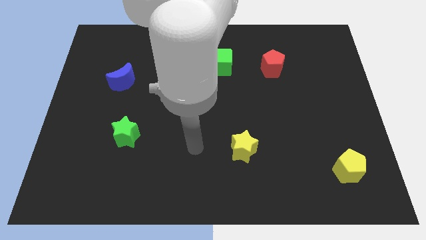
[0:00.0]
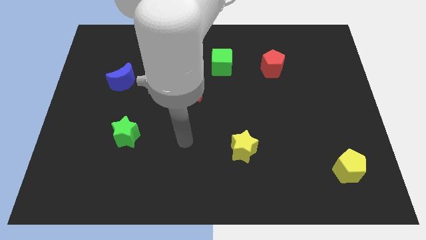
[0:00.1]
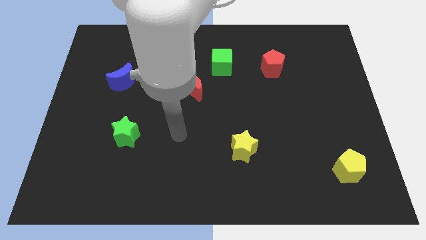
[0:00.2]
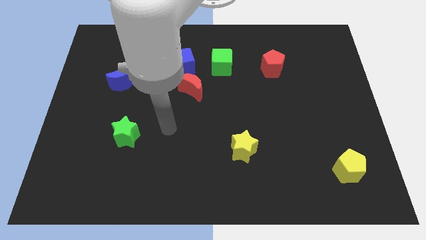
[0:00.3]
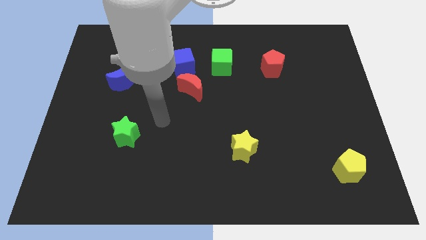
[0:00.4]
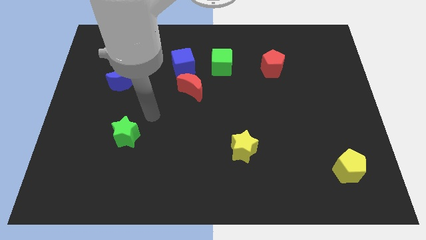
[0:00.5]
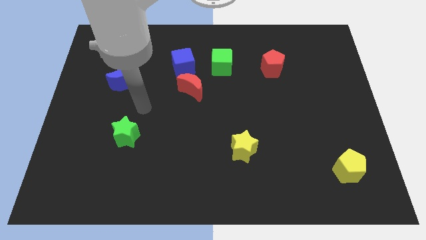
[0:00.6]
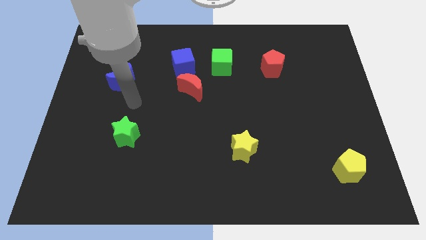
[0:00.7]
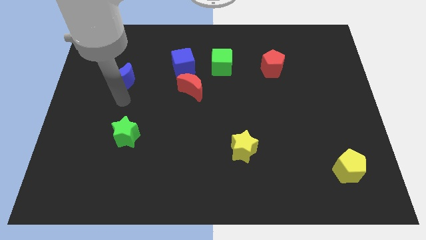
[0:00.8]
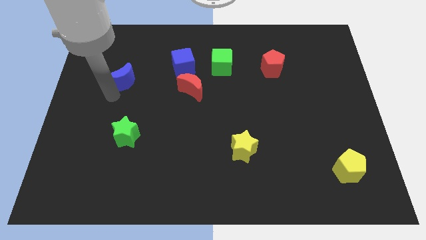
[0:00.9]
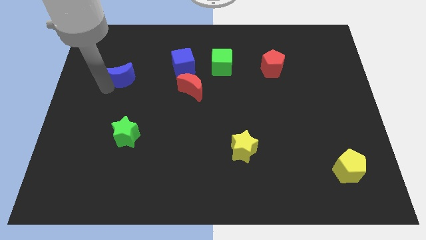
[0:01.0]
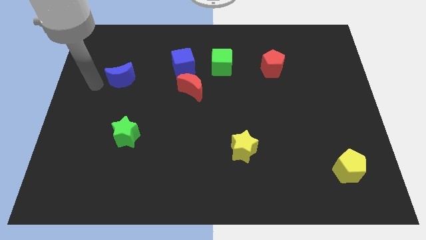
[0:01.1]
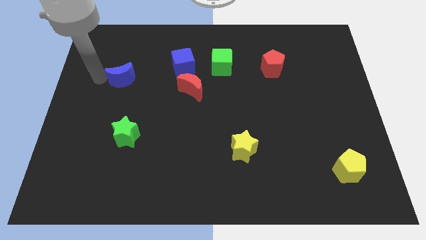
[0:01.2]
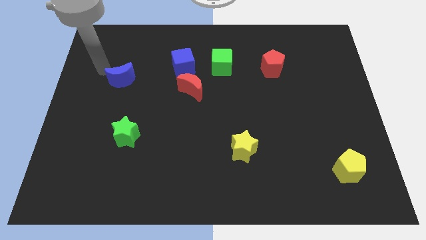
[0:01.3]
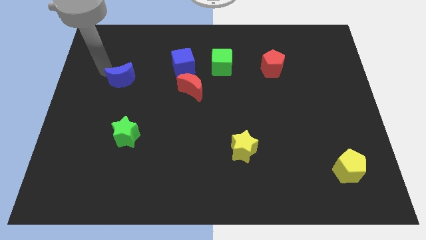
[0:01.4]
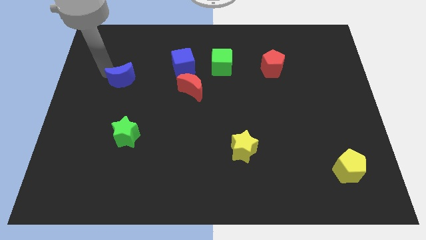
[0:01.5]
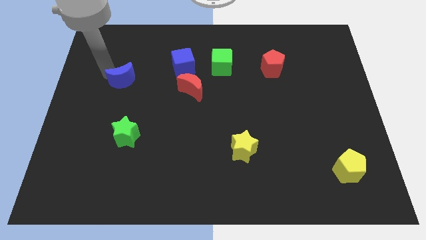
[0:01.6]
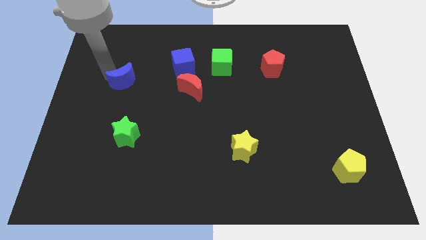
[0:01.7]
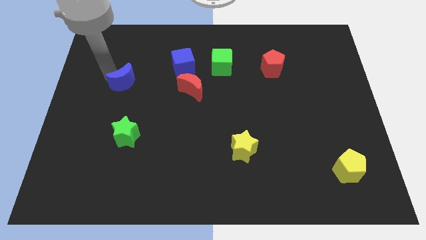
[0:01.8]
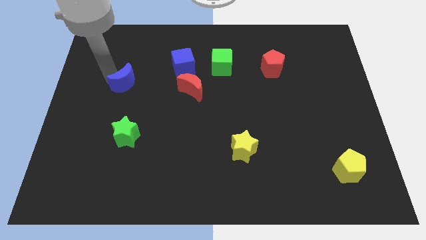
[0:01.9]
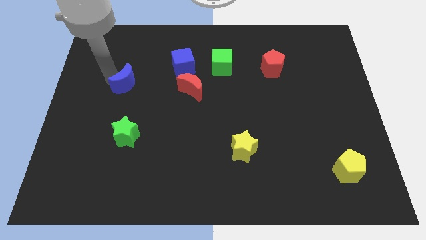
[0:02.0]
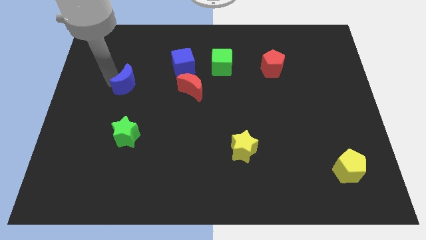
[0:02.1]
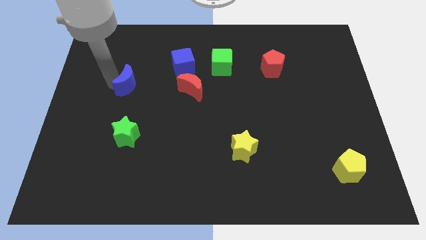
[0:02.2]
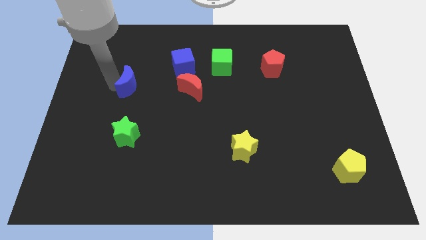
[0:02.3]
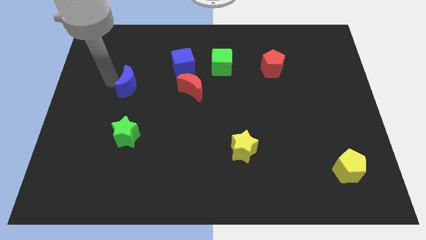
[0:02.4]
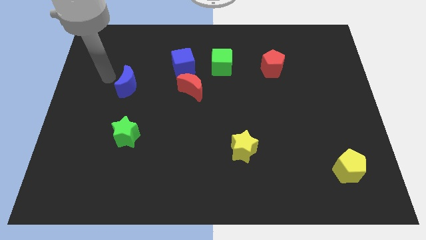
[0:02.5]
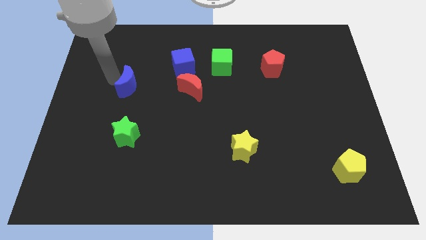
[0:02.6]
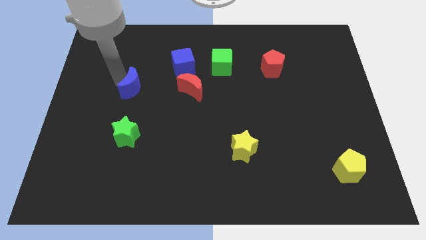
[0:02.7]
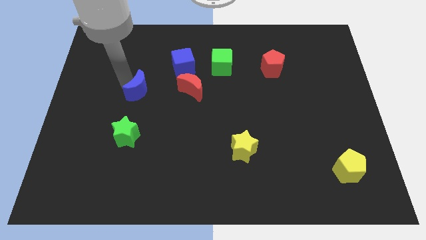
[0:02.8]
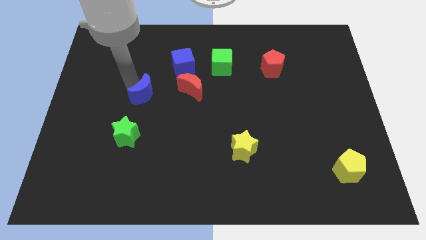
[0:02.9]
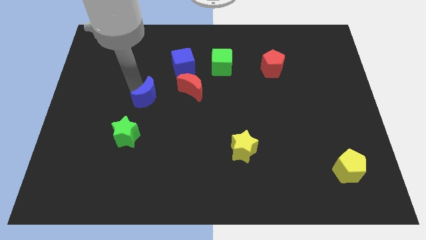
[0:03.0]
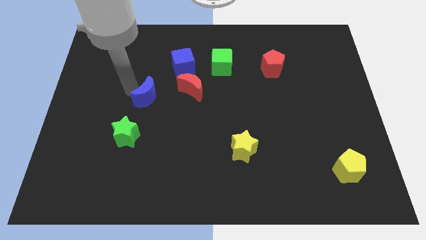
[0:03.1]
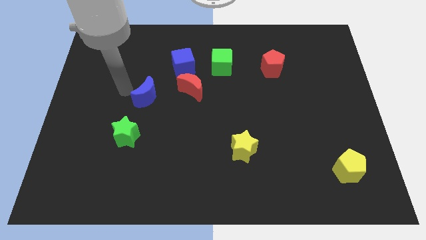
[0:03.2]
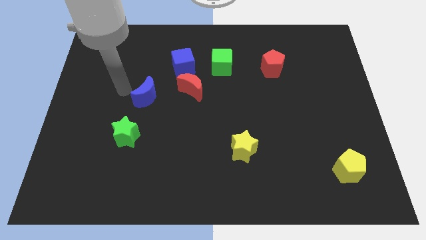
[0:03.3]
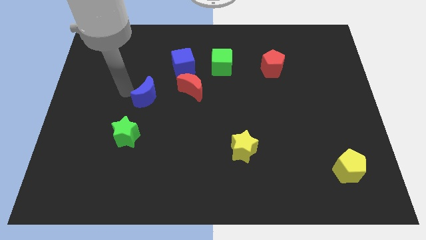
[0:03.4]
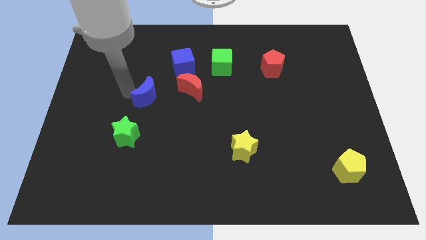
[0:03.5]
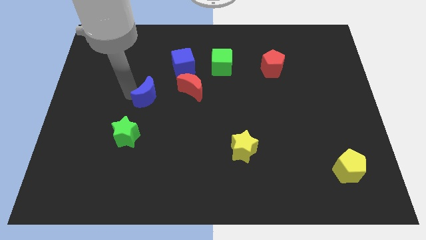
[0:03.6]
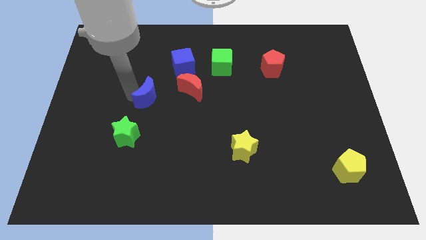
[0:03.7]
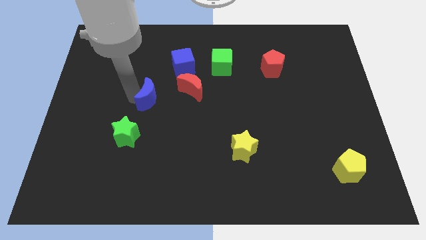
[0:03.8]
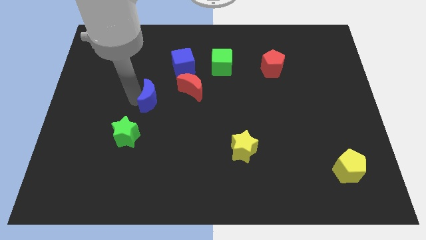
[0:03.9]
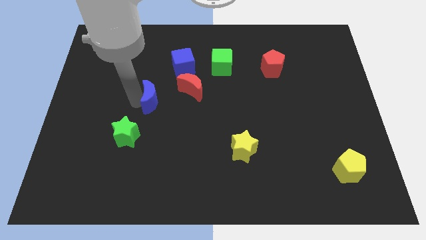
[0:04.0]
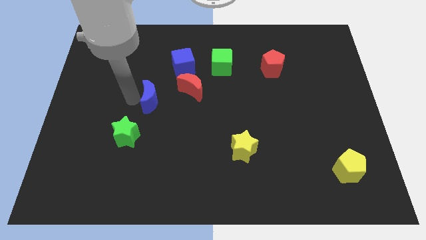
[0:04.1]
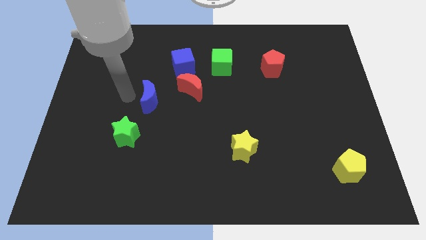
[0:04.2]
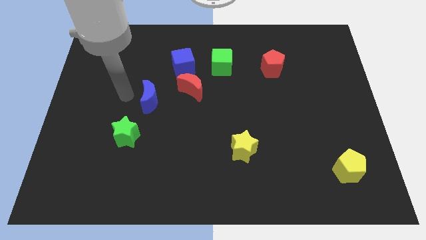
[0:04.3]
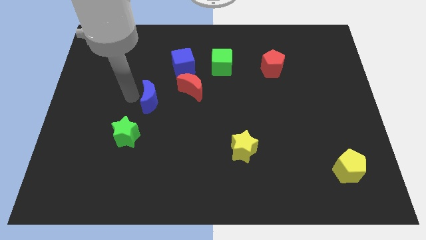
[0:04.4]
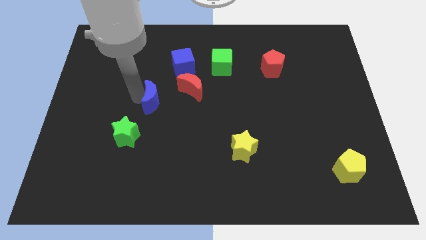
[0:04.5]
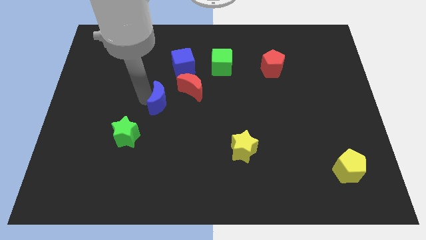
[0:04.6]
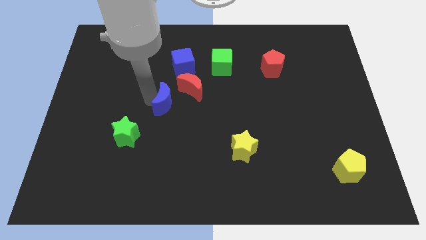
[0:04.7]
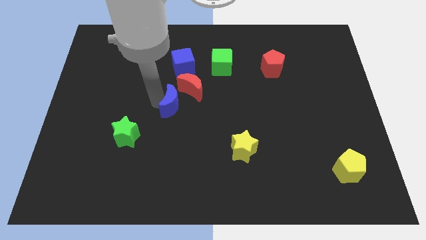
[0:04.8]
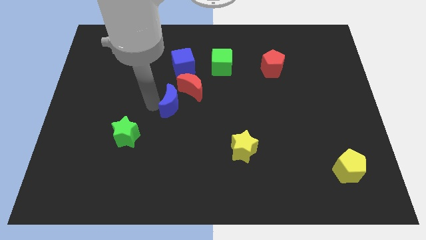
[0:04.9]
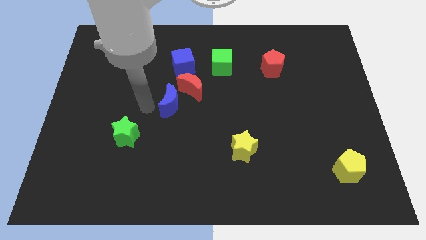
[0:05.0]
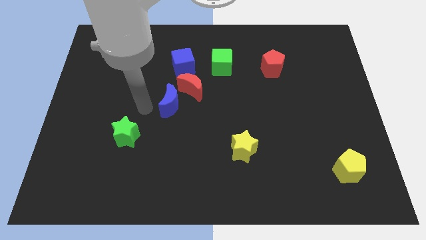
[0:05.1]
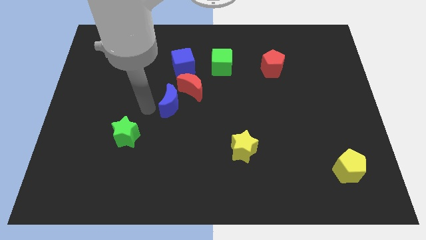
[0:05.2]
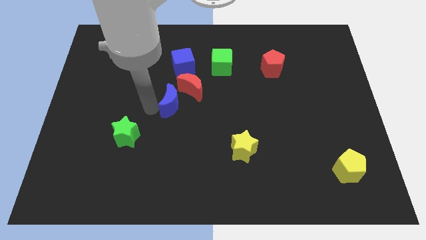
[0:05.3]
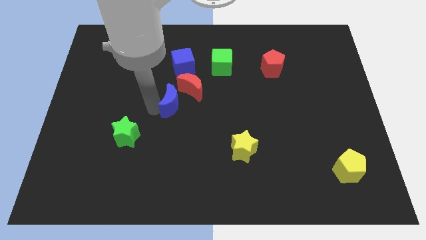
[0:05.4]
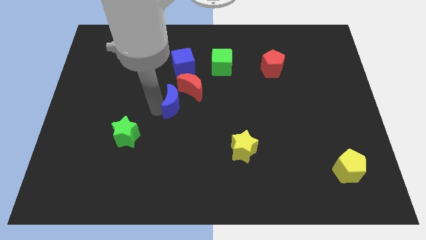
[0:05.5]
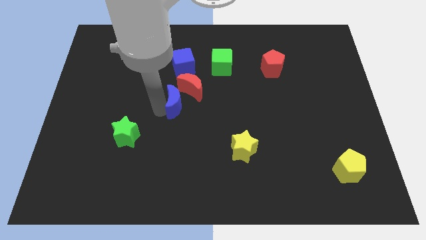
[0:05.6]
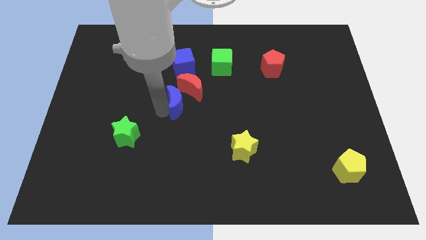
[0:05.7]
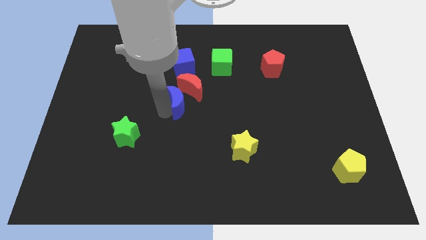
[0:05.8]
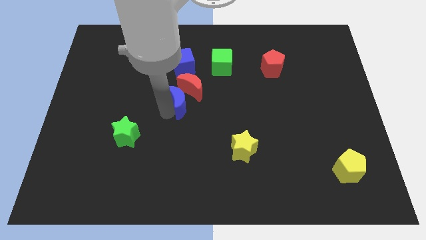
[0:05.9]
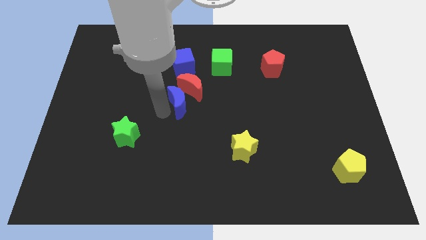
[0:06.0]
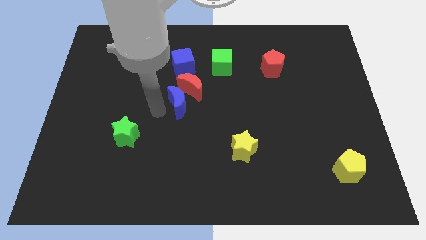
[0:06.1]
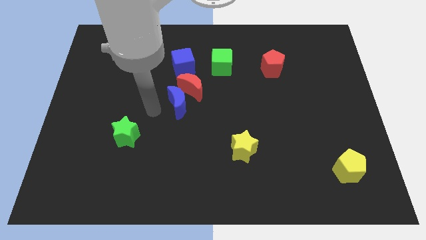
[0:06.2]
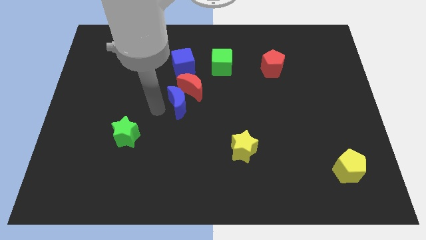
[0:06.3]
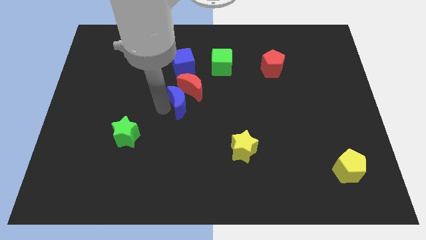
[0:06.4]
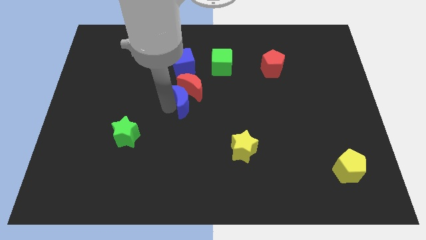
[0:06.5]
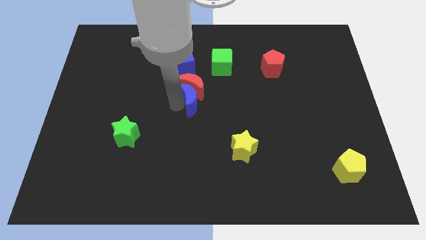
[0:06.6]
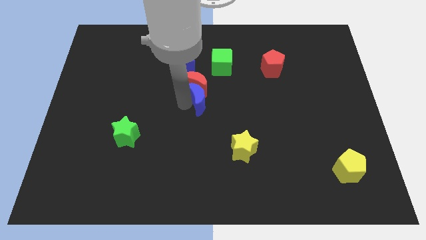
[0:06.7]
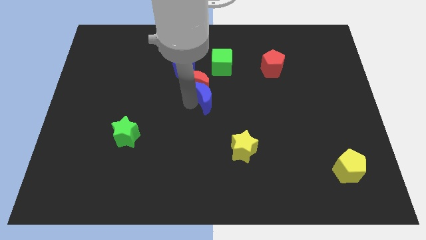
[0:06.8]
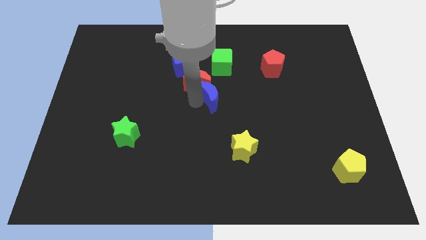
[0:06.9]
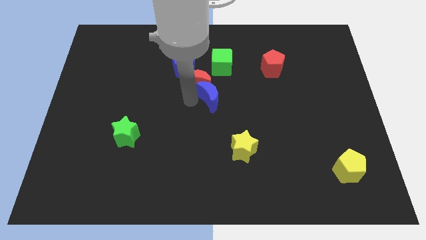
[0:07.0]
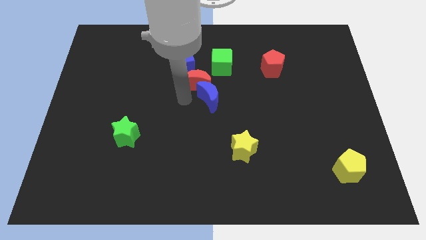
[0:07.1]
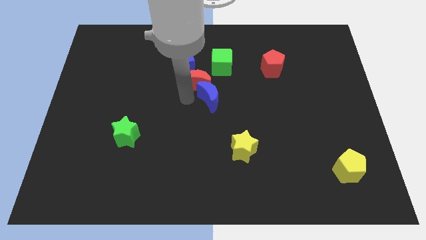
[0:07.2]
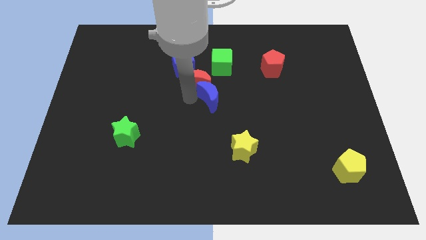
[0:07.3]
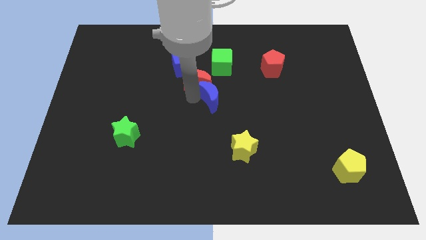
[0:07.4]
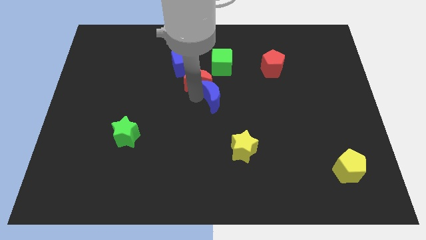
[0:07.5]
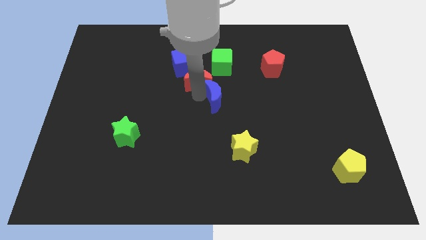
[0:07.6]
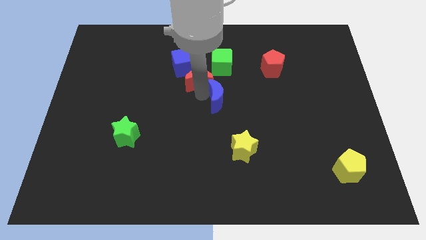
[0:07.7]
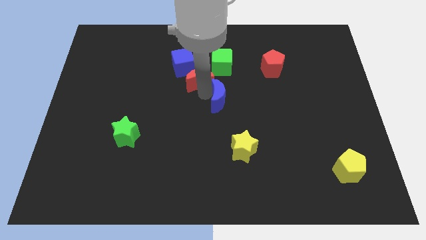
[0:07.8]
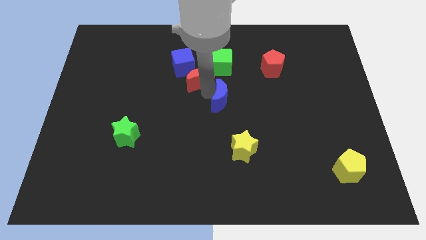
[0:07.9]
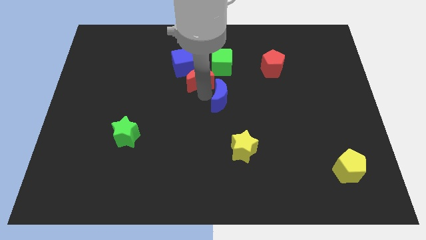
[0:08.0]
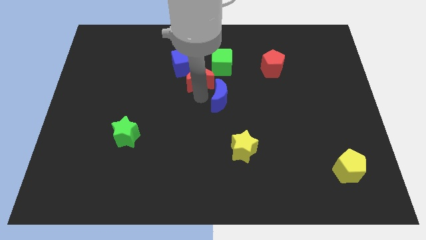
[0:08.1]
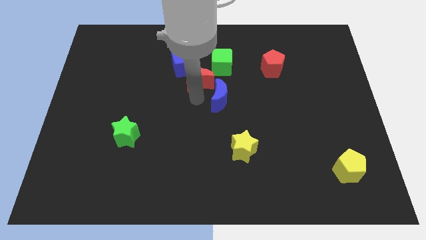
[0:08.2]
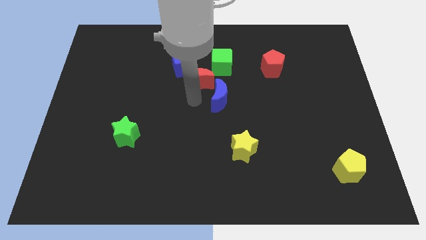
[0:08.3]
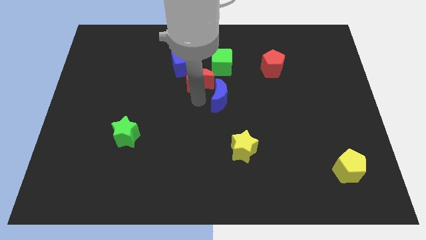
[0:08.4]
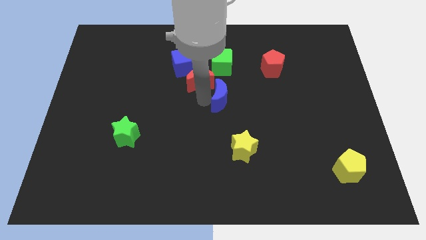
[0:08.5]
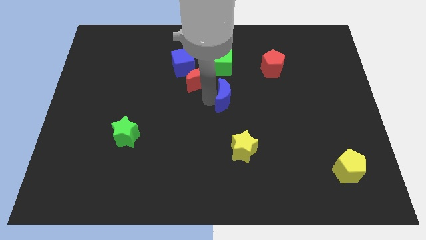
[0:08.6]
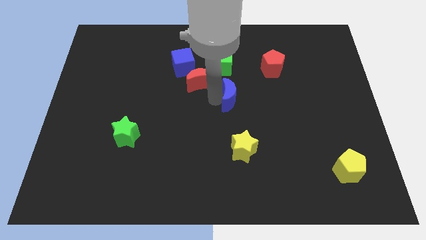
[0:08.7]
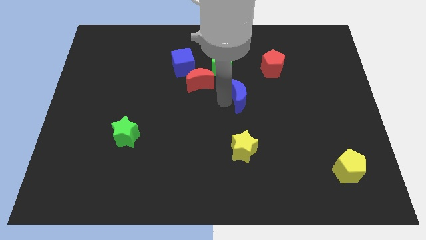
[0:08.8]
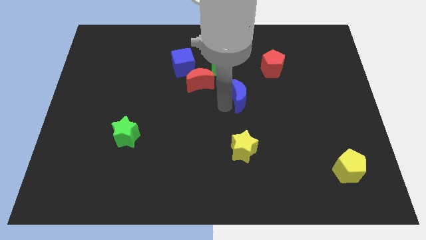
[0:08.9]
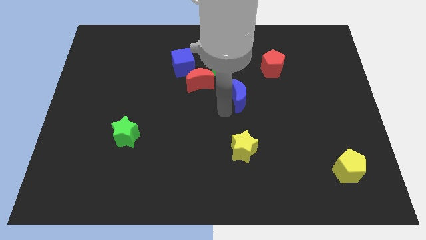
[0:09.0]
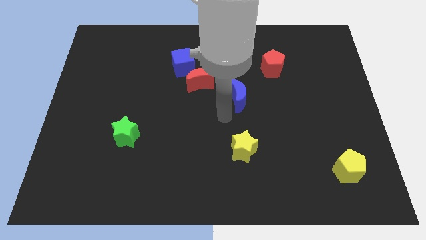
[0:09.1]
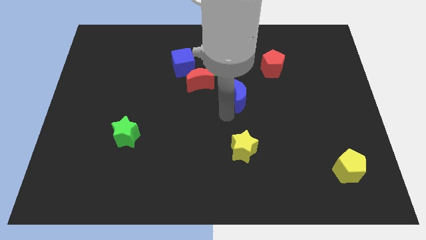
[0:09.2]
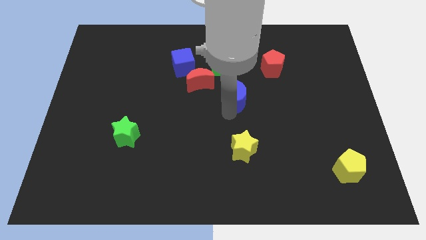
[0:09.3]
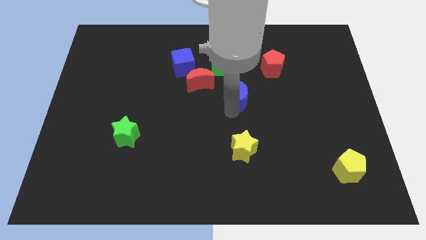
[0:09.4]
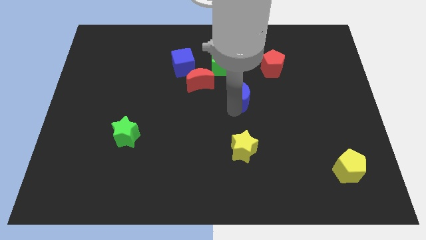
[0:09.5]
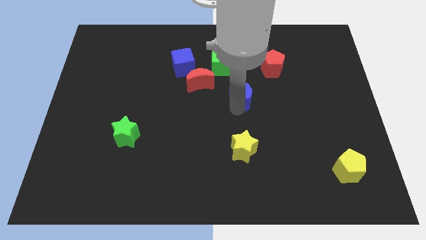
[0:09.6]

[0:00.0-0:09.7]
put the blue moon to the bottom left of the red pentagon
